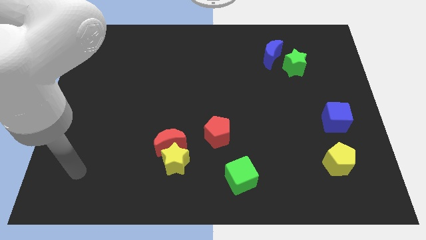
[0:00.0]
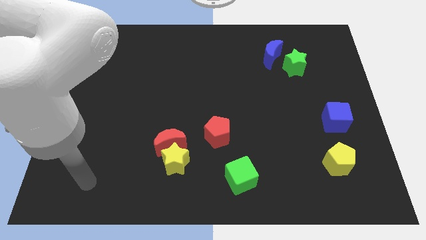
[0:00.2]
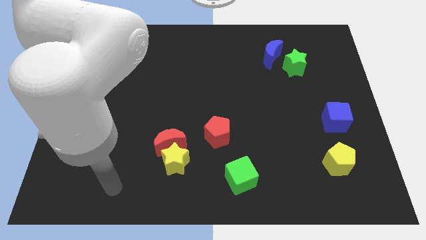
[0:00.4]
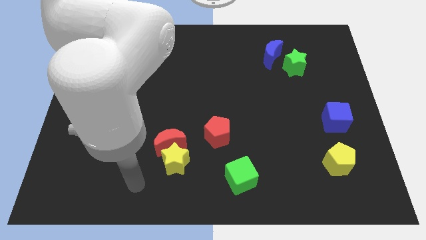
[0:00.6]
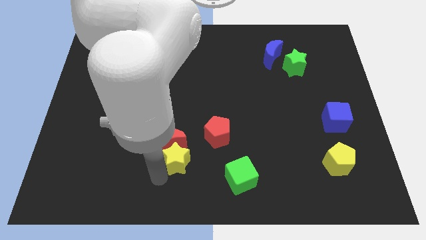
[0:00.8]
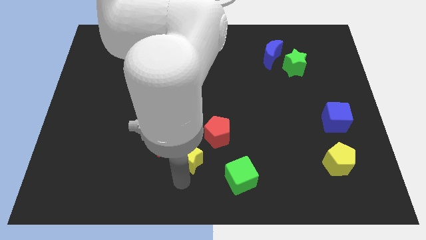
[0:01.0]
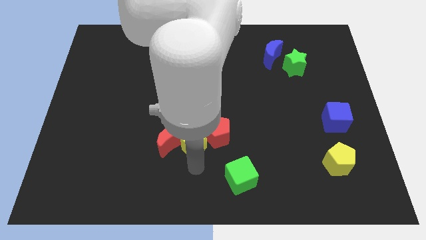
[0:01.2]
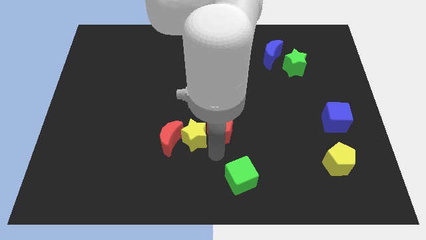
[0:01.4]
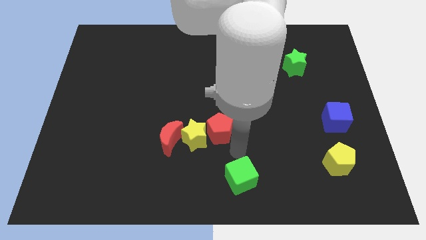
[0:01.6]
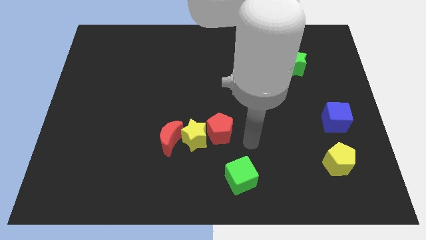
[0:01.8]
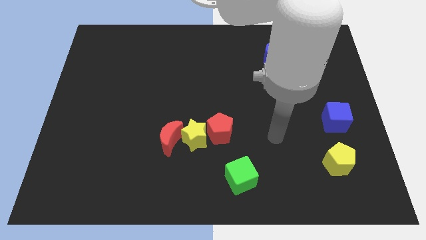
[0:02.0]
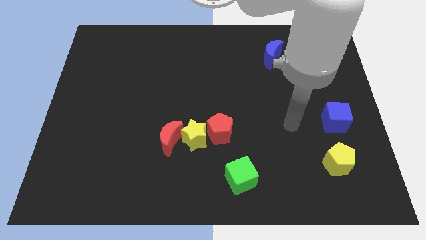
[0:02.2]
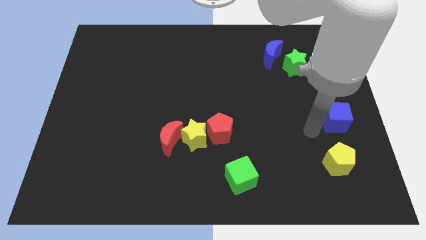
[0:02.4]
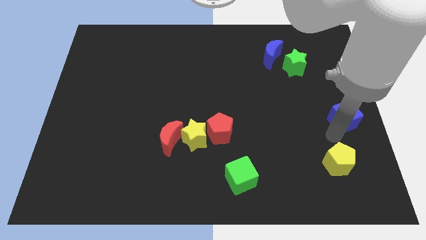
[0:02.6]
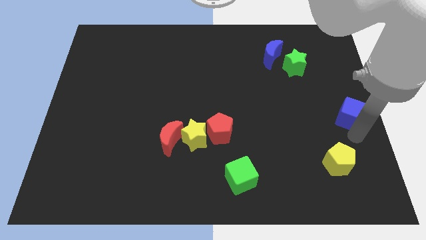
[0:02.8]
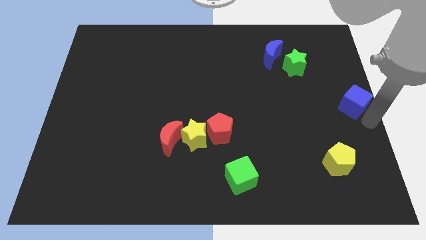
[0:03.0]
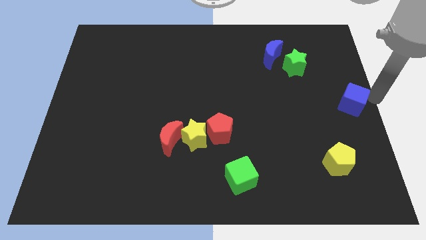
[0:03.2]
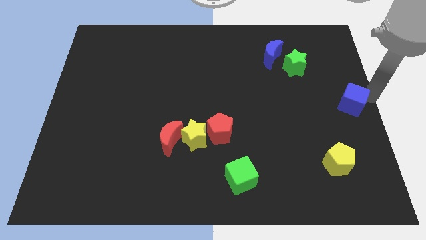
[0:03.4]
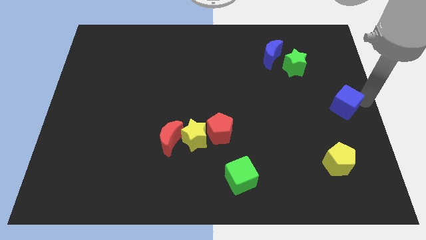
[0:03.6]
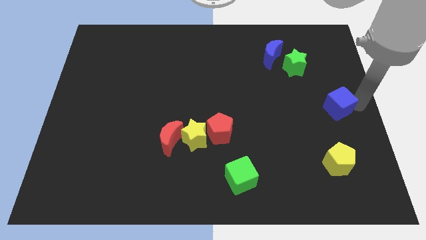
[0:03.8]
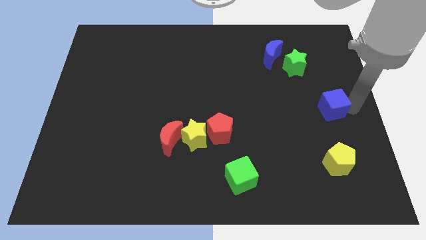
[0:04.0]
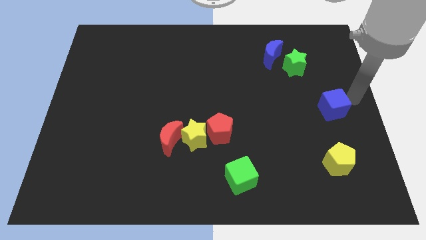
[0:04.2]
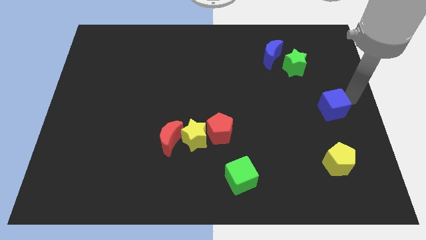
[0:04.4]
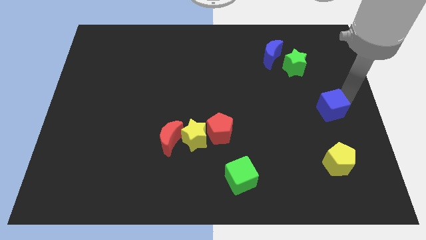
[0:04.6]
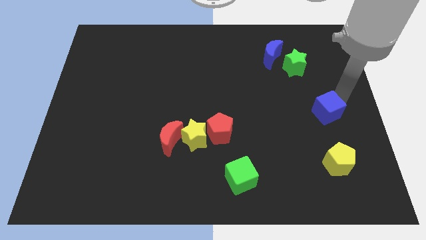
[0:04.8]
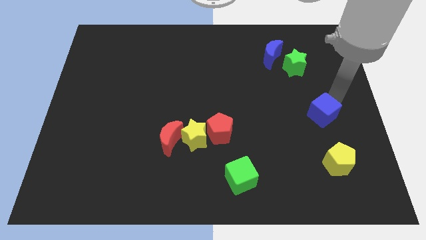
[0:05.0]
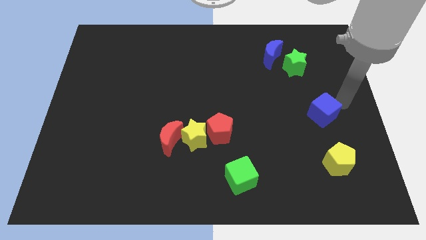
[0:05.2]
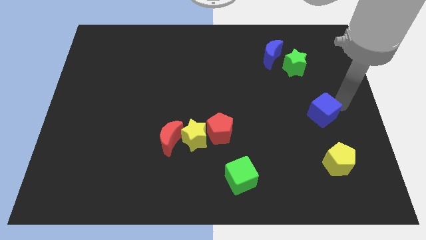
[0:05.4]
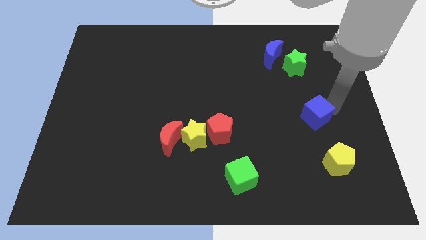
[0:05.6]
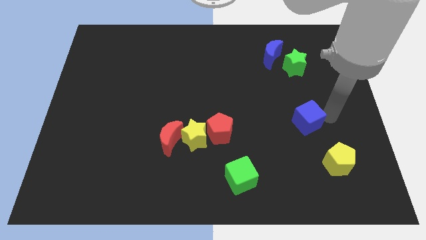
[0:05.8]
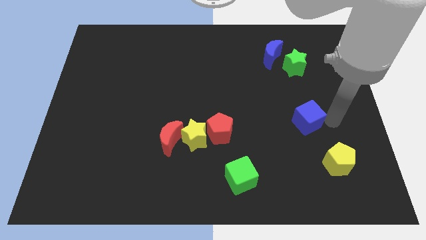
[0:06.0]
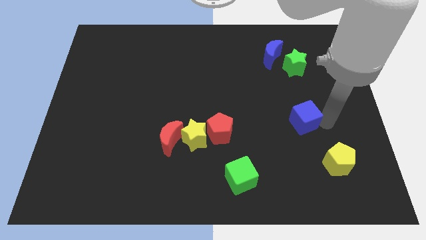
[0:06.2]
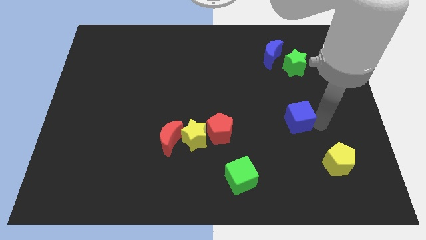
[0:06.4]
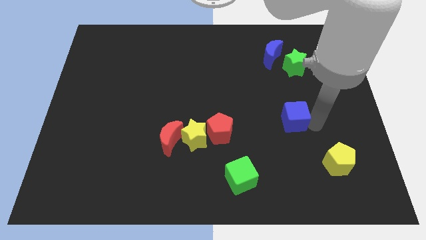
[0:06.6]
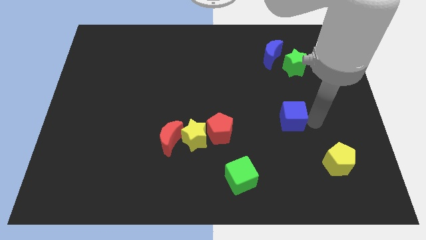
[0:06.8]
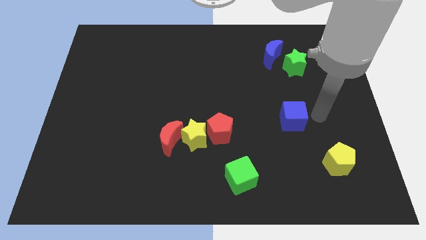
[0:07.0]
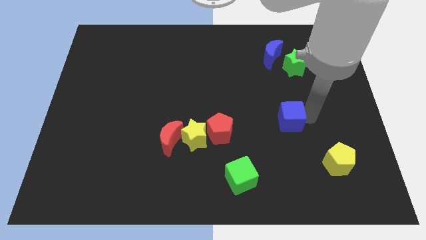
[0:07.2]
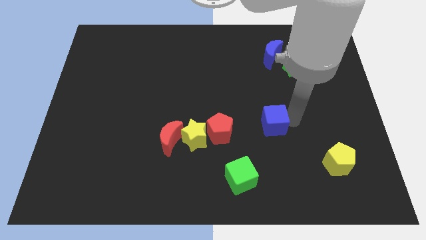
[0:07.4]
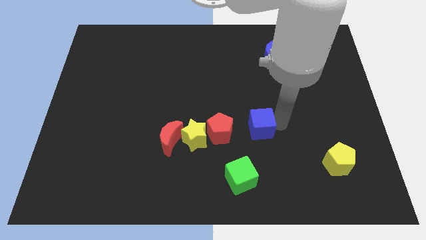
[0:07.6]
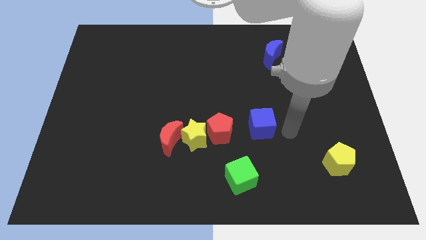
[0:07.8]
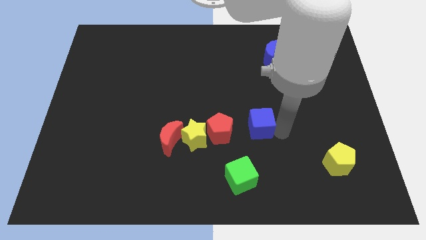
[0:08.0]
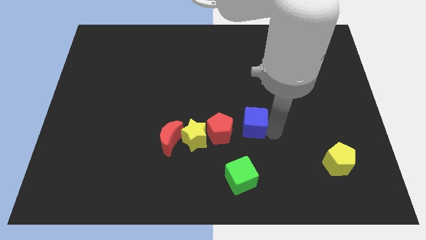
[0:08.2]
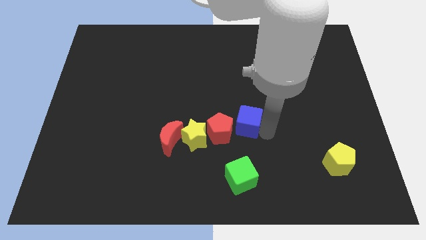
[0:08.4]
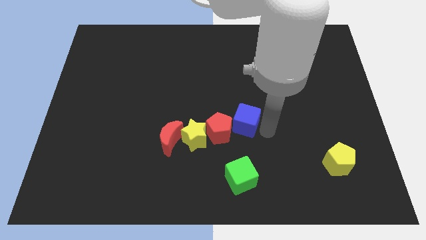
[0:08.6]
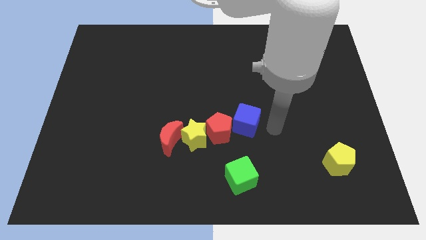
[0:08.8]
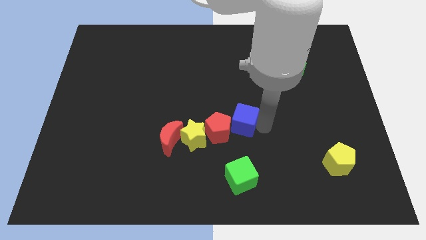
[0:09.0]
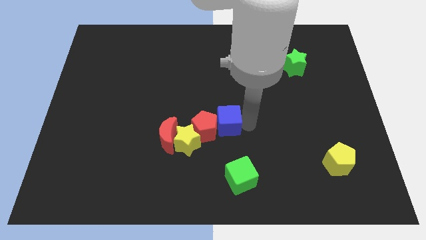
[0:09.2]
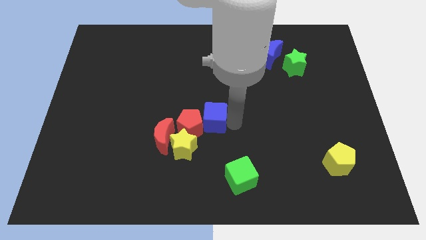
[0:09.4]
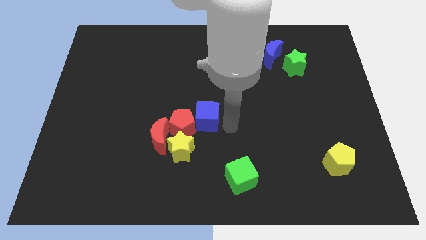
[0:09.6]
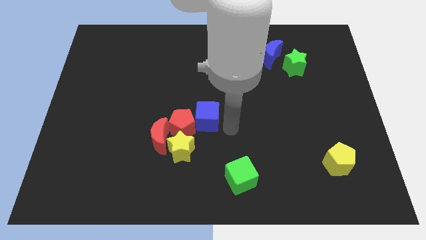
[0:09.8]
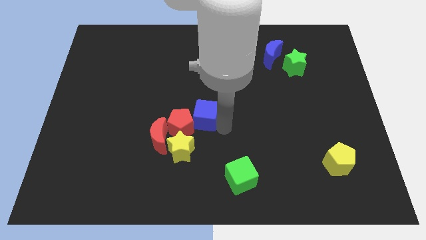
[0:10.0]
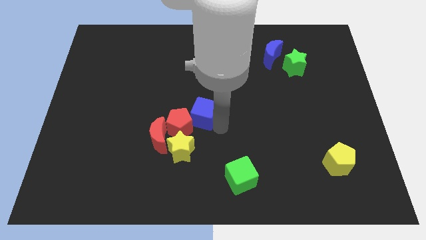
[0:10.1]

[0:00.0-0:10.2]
slide the blue cube to the top side of the yellow star

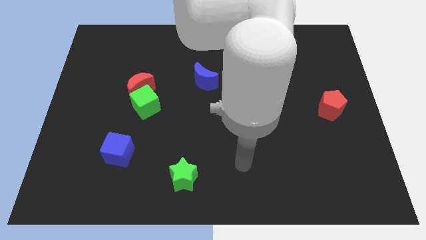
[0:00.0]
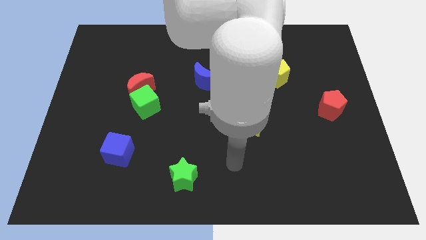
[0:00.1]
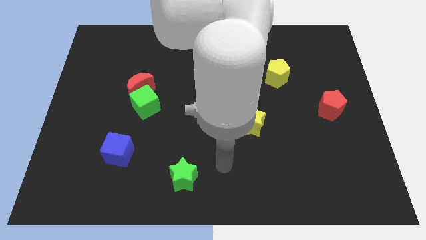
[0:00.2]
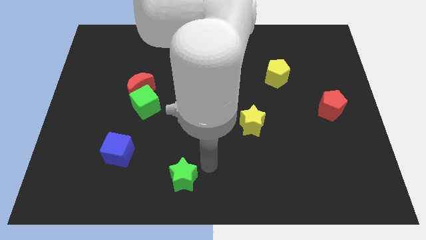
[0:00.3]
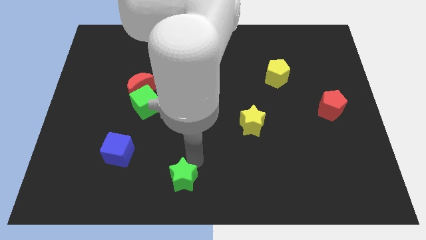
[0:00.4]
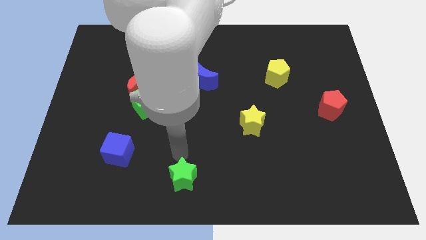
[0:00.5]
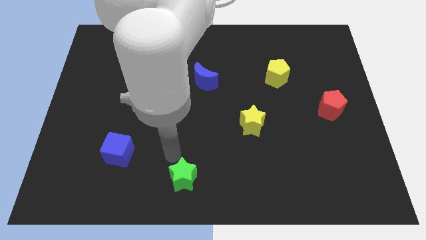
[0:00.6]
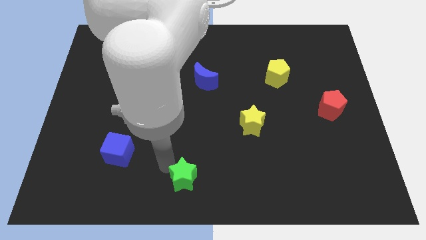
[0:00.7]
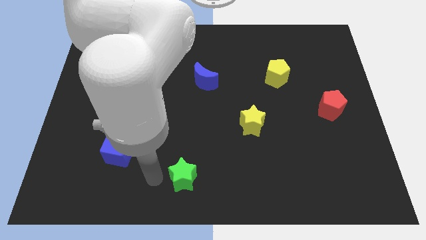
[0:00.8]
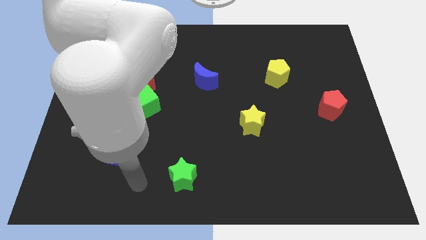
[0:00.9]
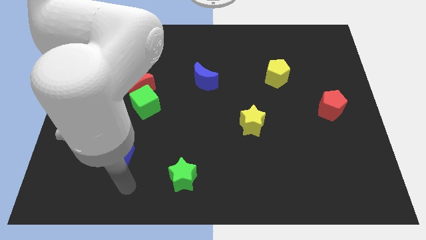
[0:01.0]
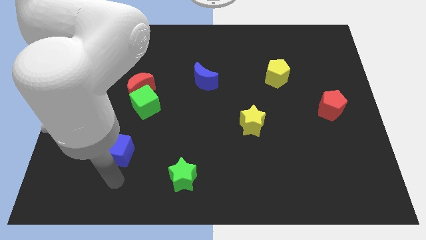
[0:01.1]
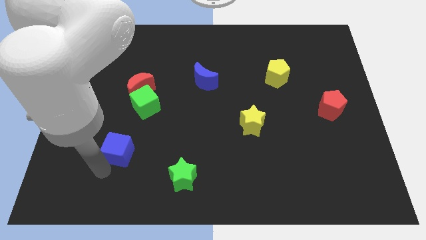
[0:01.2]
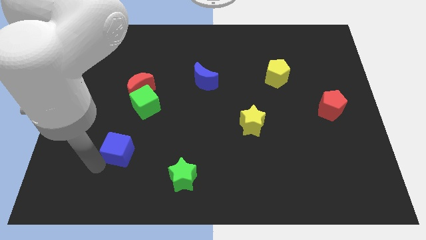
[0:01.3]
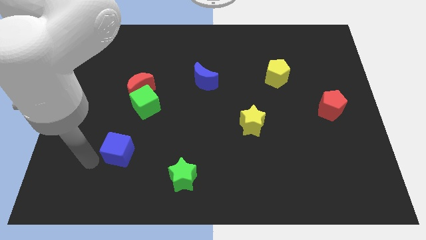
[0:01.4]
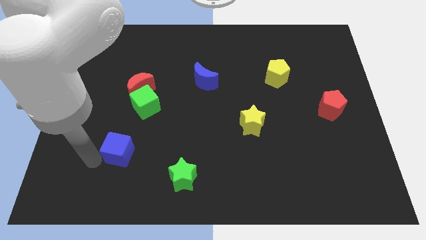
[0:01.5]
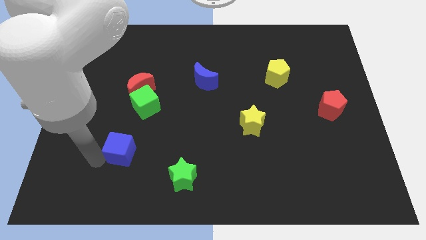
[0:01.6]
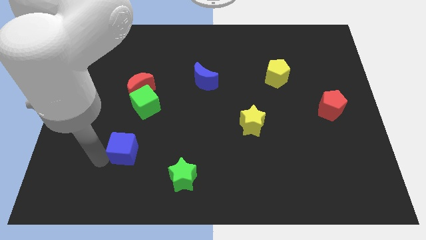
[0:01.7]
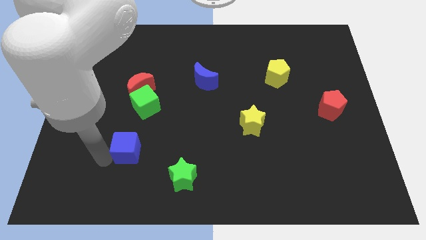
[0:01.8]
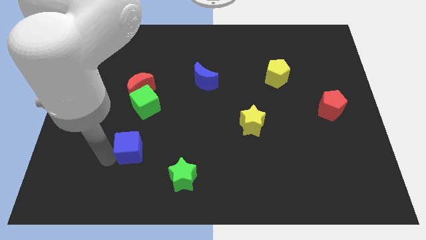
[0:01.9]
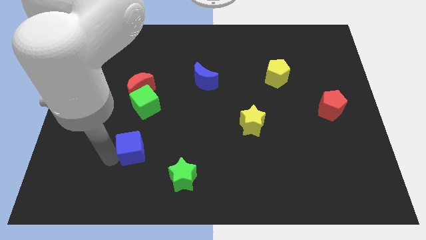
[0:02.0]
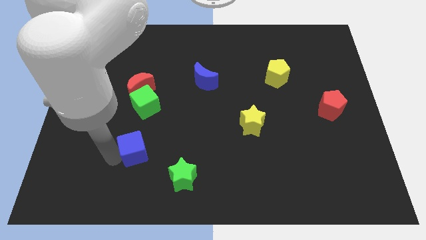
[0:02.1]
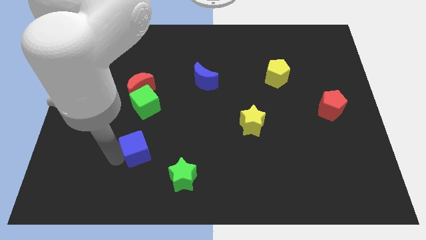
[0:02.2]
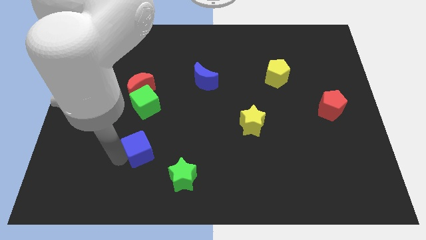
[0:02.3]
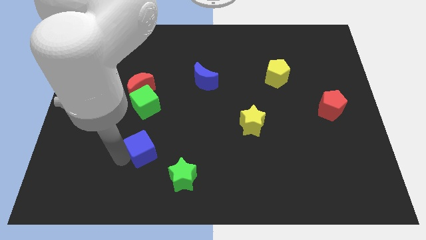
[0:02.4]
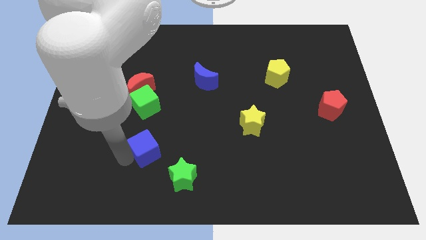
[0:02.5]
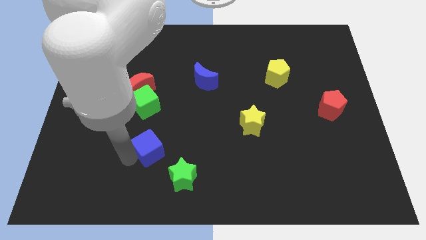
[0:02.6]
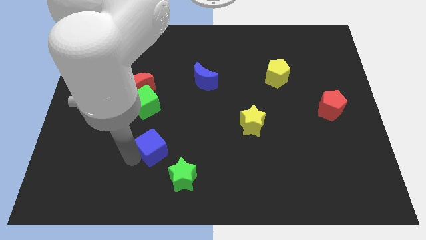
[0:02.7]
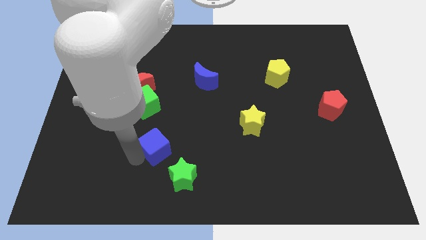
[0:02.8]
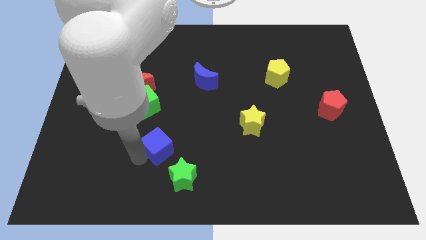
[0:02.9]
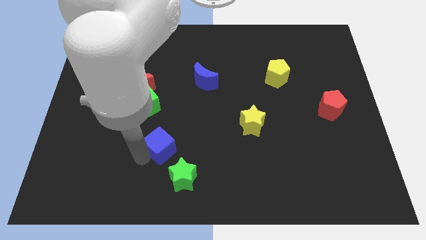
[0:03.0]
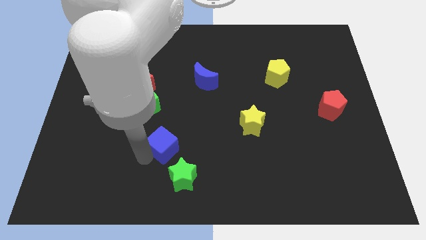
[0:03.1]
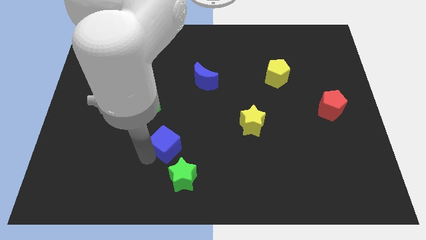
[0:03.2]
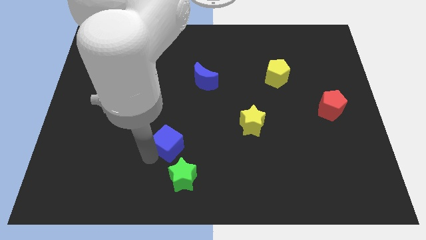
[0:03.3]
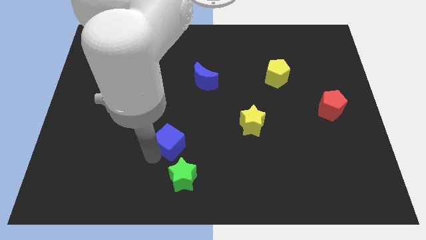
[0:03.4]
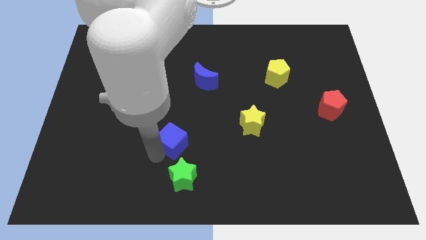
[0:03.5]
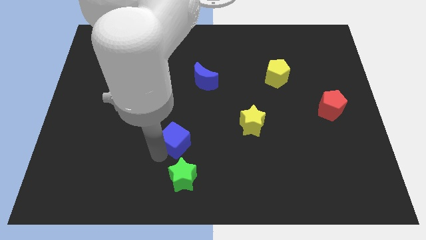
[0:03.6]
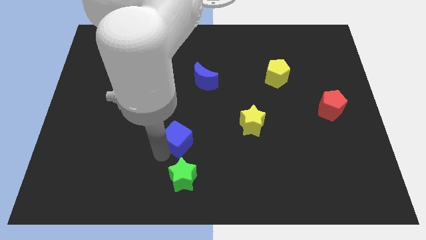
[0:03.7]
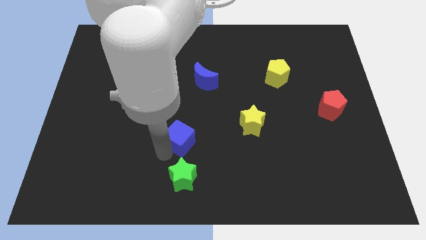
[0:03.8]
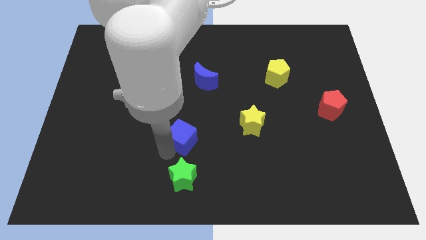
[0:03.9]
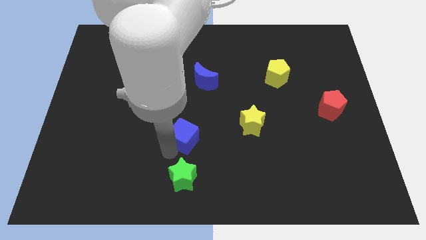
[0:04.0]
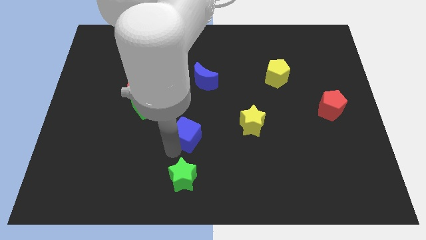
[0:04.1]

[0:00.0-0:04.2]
slide the blue cube to the left of the yellow star
